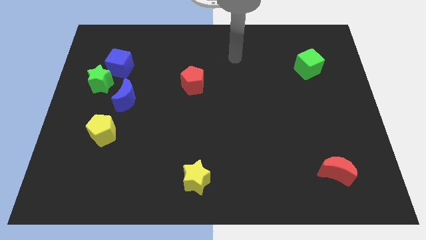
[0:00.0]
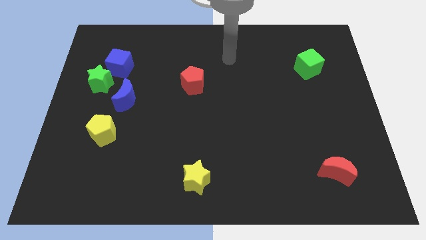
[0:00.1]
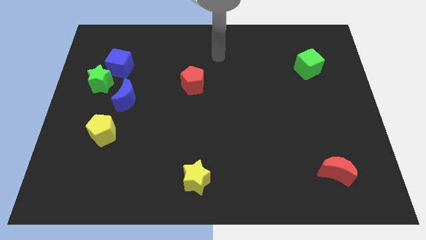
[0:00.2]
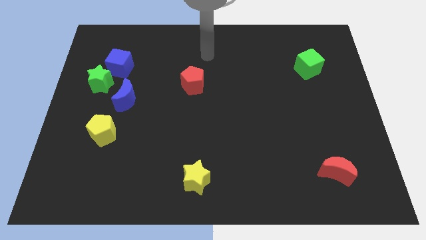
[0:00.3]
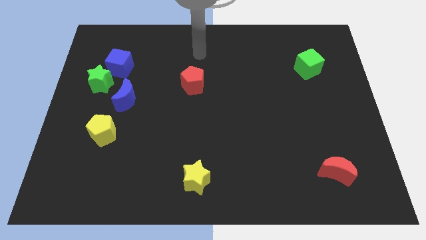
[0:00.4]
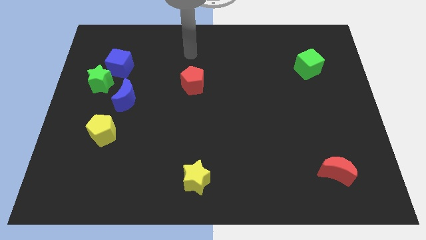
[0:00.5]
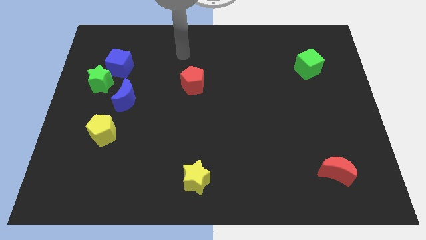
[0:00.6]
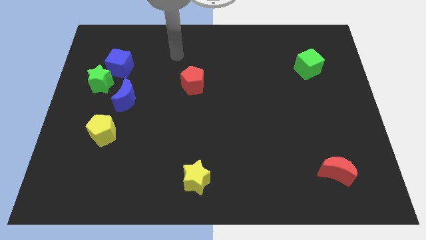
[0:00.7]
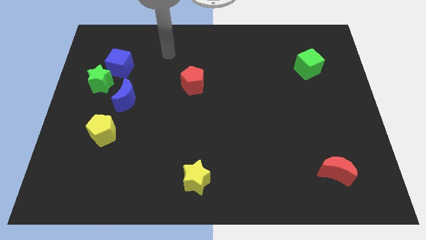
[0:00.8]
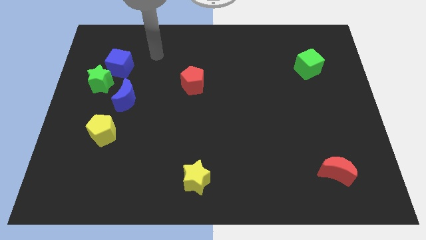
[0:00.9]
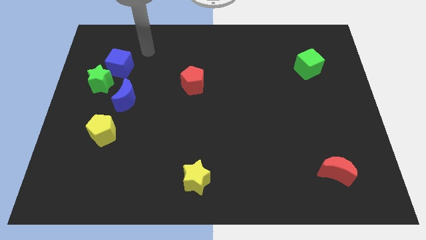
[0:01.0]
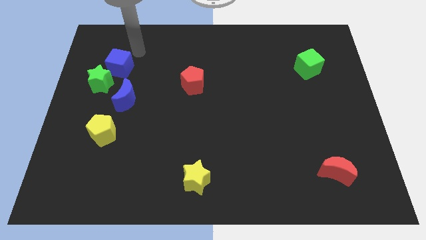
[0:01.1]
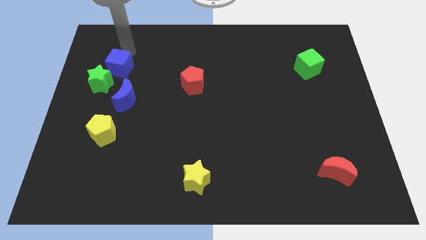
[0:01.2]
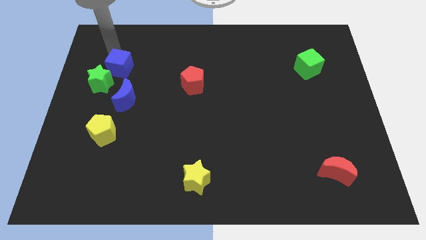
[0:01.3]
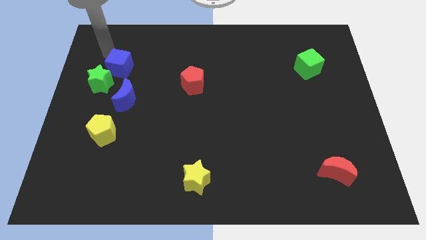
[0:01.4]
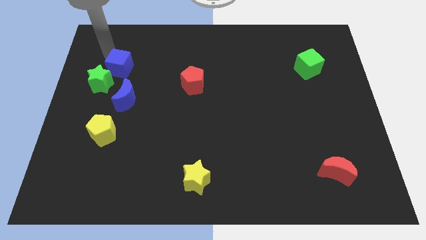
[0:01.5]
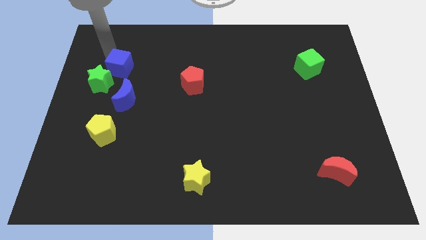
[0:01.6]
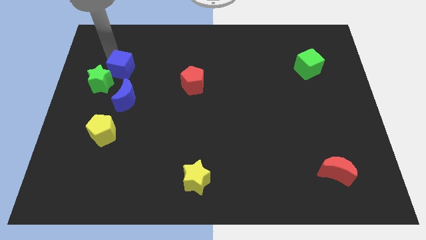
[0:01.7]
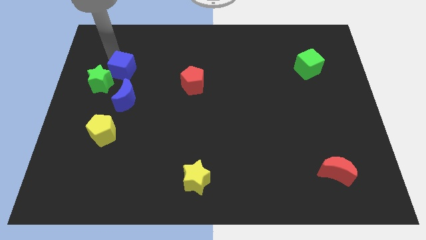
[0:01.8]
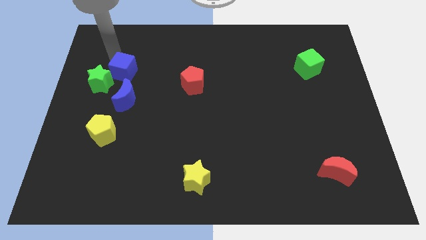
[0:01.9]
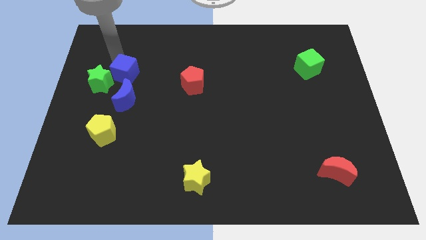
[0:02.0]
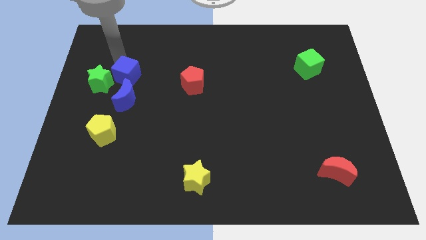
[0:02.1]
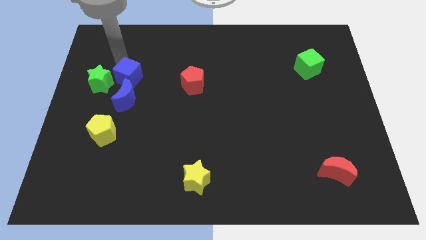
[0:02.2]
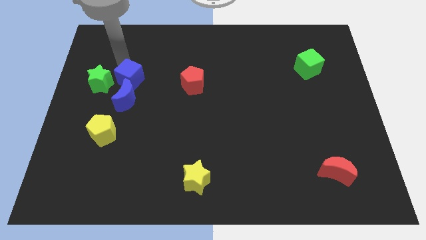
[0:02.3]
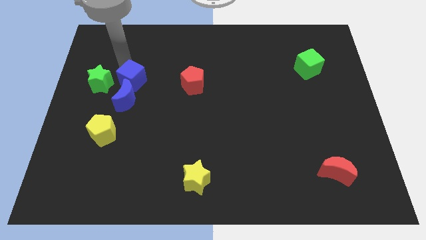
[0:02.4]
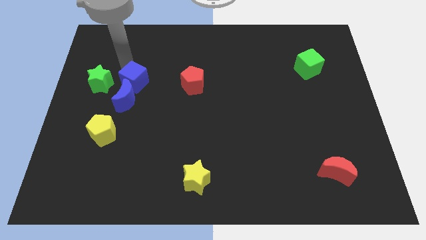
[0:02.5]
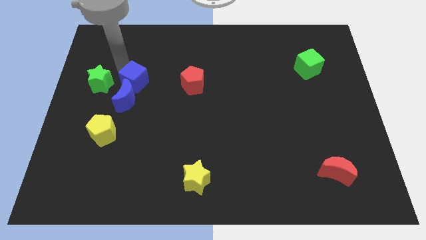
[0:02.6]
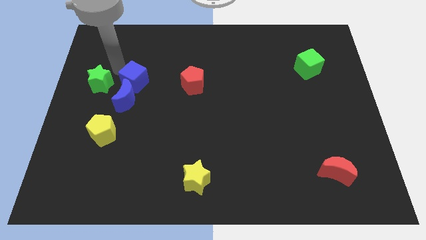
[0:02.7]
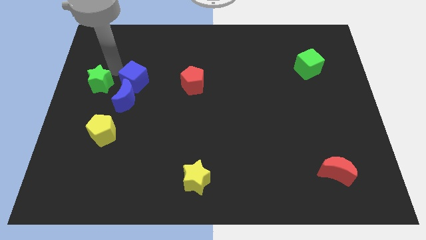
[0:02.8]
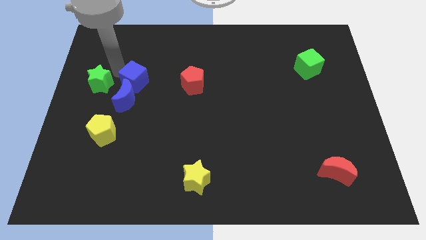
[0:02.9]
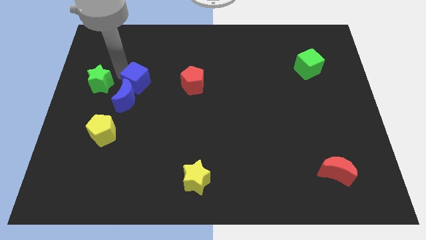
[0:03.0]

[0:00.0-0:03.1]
move the blue cube somewhat downwards and right

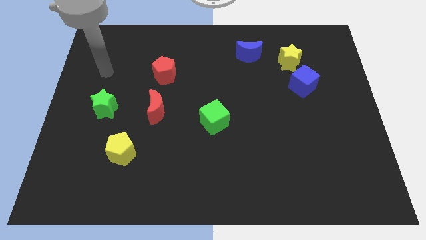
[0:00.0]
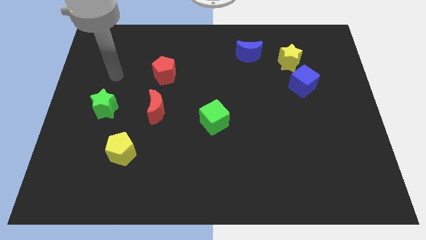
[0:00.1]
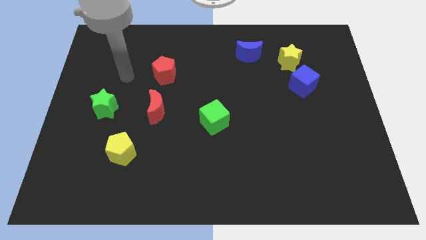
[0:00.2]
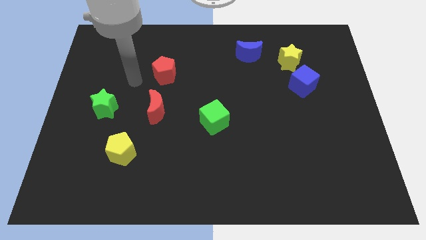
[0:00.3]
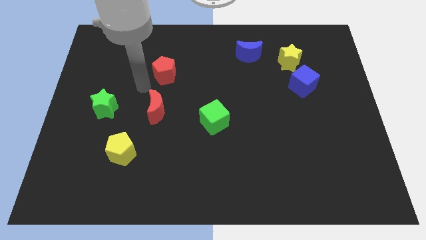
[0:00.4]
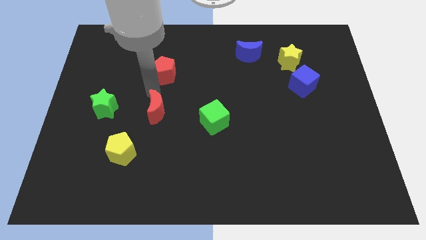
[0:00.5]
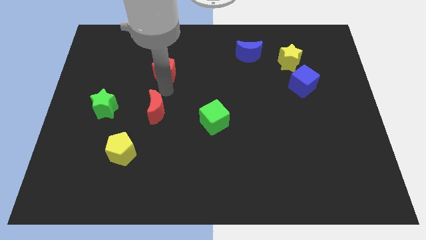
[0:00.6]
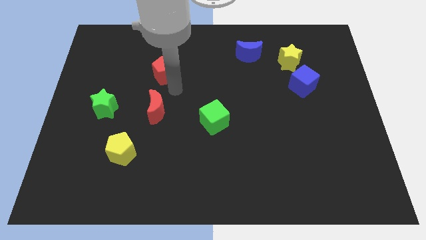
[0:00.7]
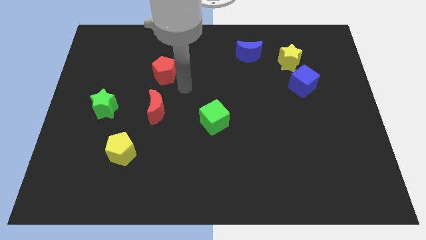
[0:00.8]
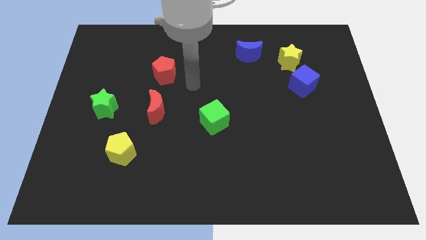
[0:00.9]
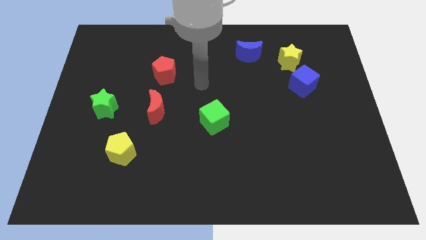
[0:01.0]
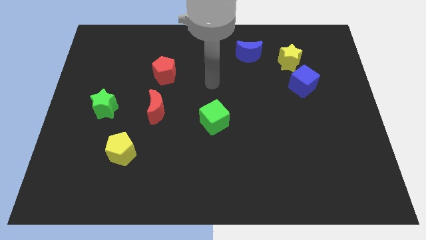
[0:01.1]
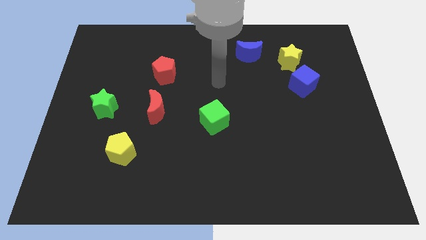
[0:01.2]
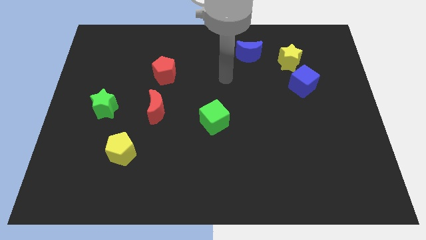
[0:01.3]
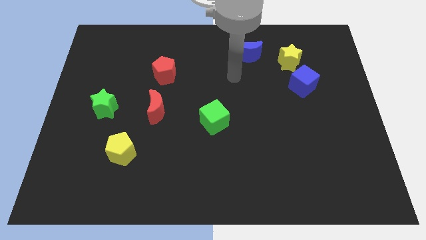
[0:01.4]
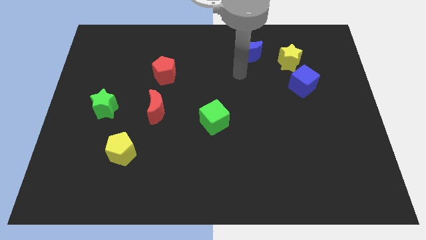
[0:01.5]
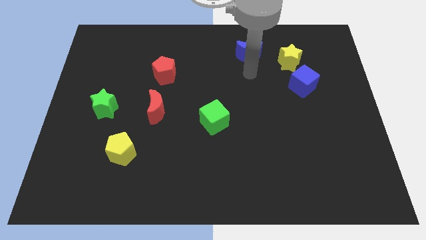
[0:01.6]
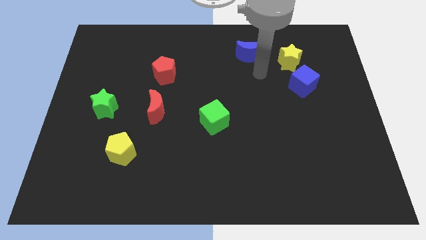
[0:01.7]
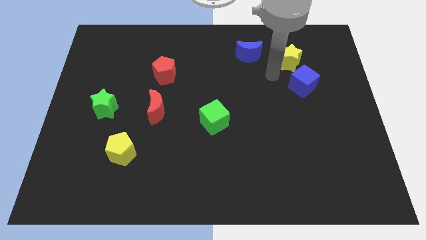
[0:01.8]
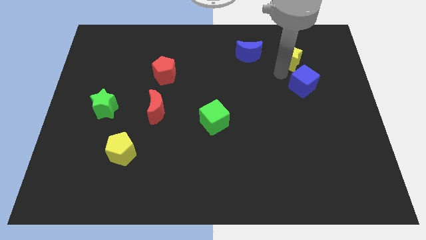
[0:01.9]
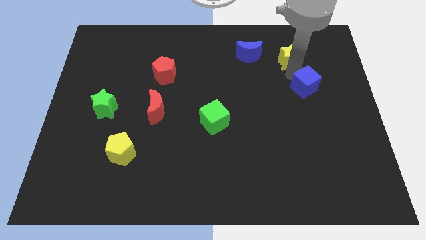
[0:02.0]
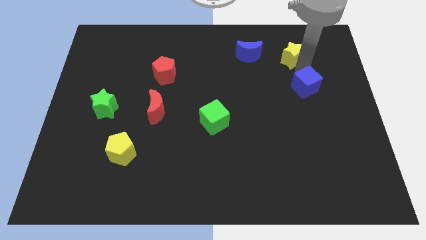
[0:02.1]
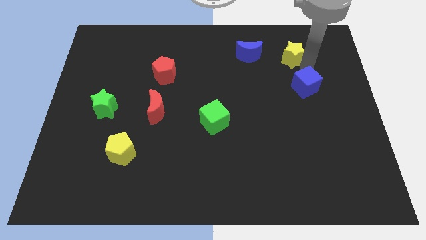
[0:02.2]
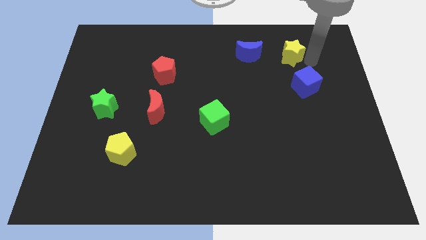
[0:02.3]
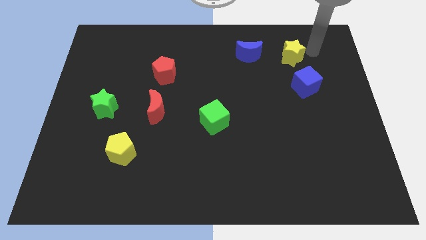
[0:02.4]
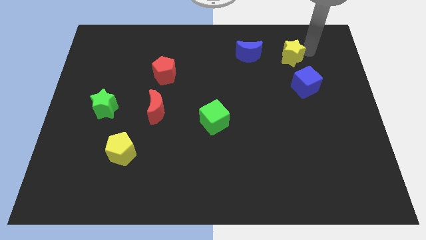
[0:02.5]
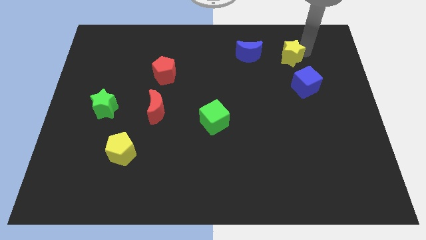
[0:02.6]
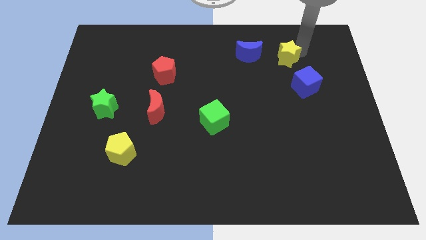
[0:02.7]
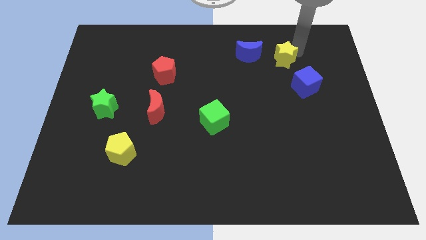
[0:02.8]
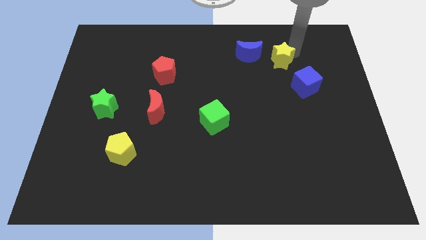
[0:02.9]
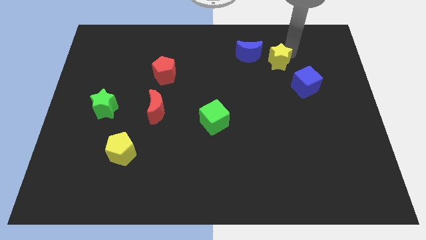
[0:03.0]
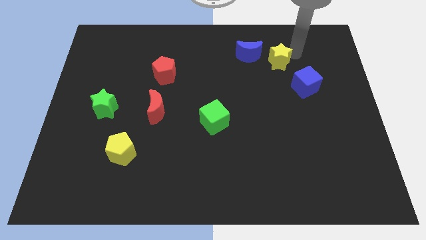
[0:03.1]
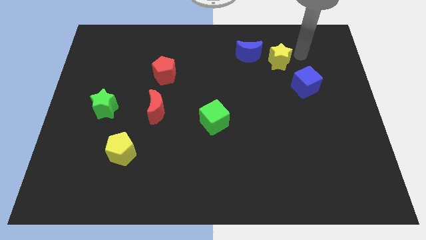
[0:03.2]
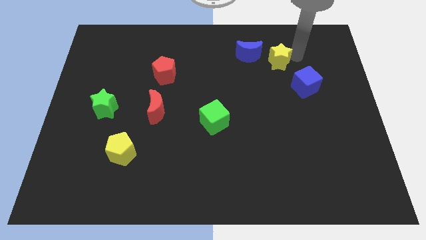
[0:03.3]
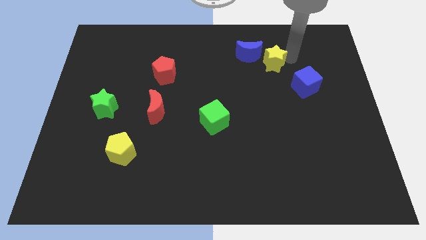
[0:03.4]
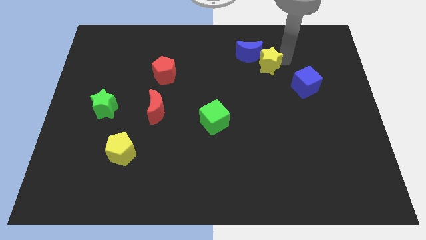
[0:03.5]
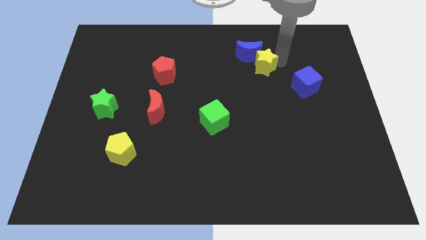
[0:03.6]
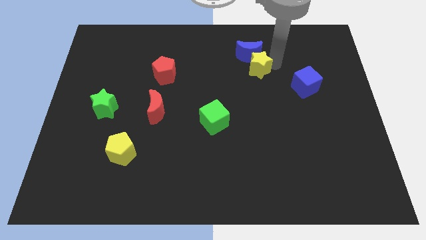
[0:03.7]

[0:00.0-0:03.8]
move the yellow star left slightly

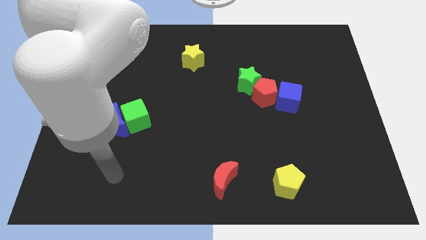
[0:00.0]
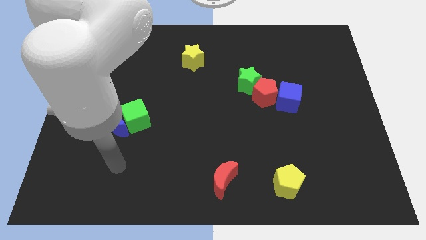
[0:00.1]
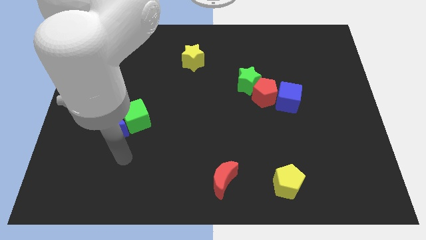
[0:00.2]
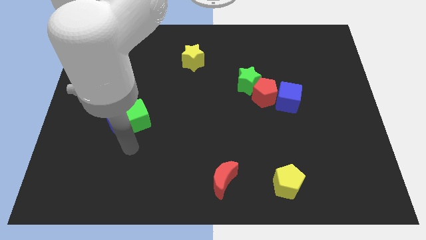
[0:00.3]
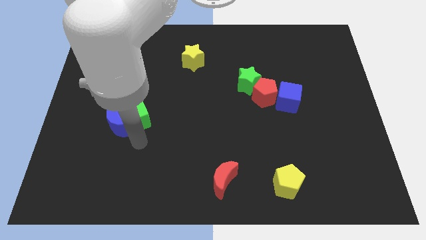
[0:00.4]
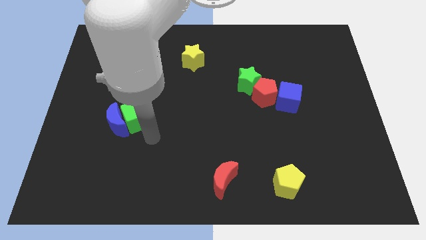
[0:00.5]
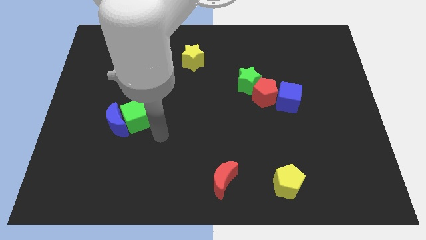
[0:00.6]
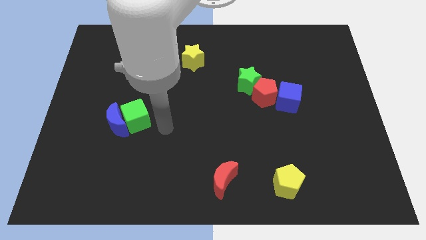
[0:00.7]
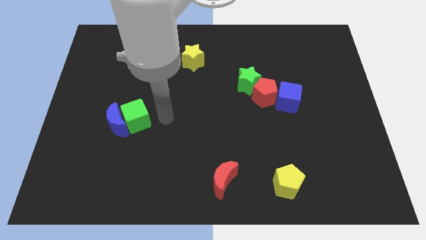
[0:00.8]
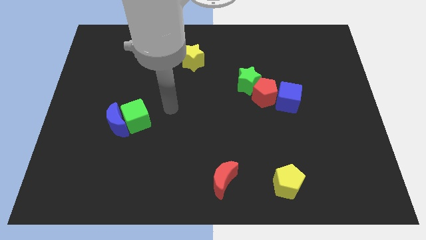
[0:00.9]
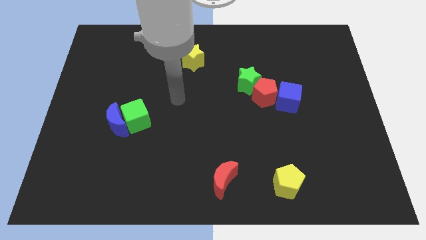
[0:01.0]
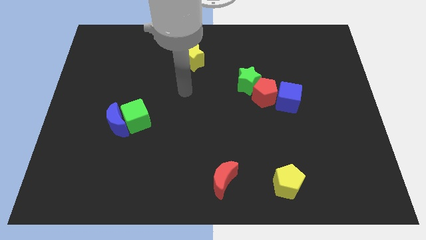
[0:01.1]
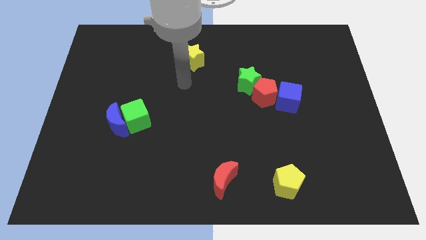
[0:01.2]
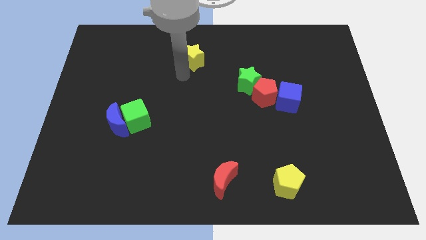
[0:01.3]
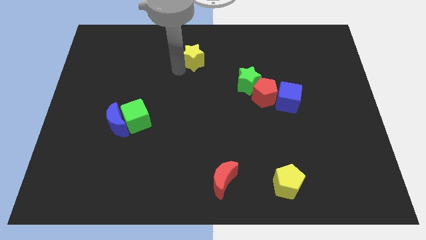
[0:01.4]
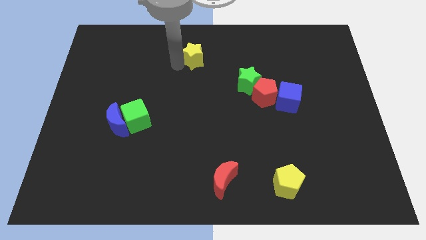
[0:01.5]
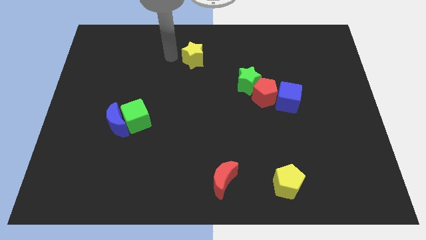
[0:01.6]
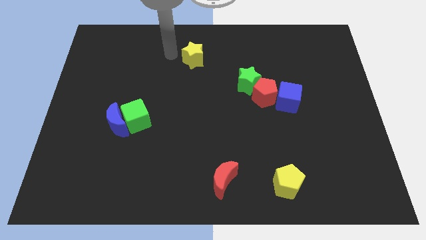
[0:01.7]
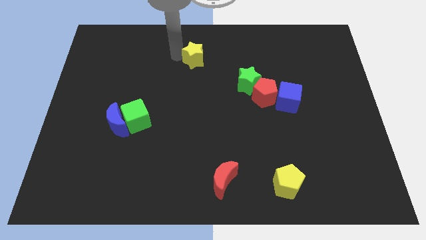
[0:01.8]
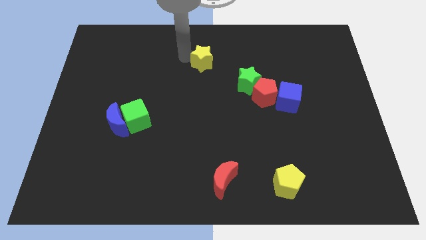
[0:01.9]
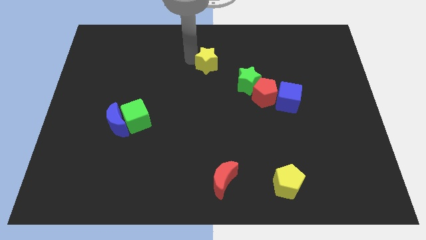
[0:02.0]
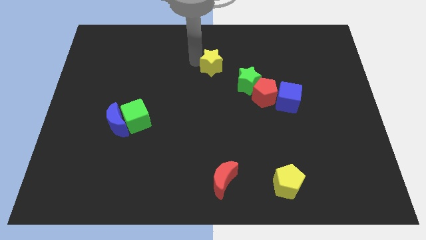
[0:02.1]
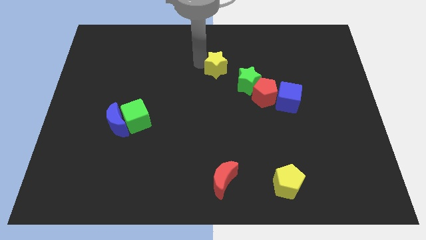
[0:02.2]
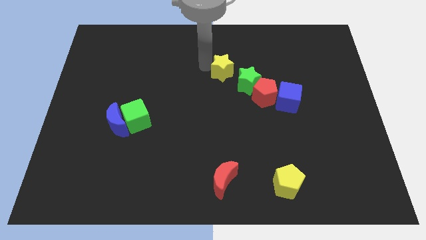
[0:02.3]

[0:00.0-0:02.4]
push the yellow star somewhat right
